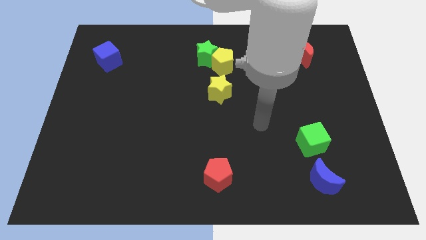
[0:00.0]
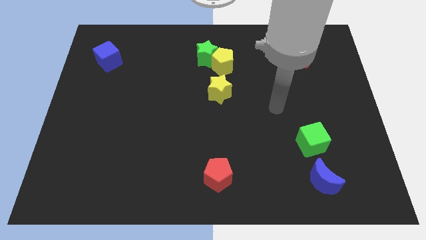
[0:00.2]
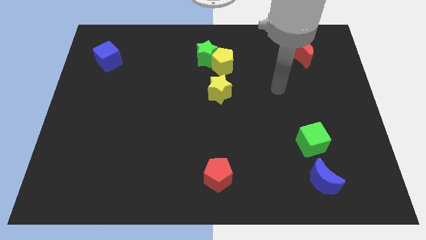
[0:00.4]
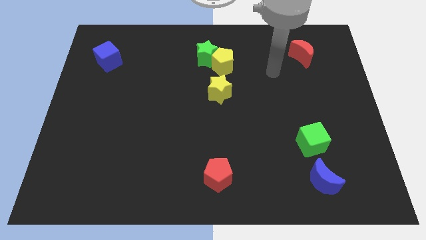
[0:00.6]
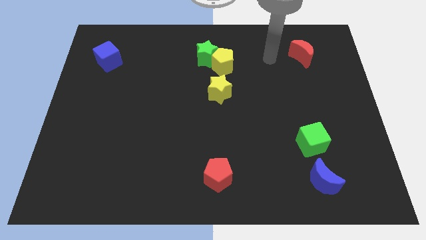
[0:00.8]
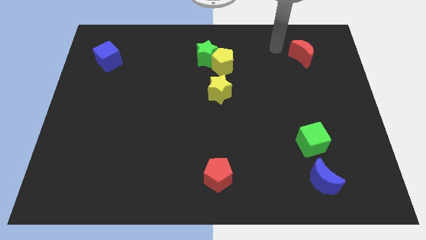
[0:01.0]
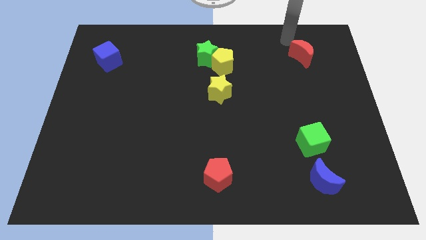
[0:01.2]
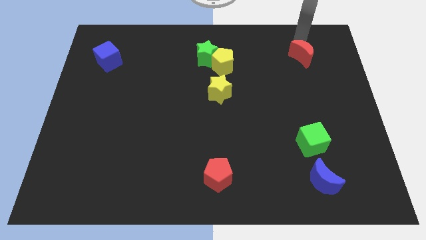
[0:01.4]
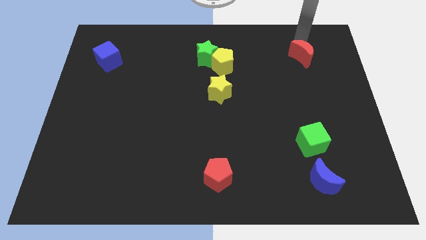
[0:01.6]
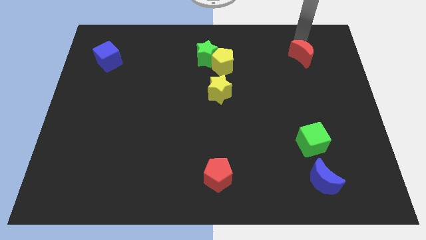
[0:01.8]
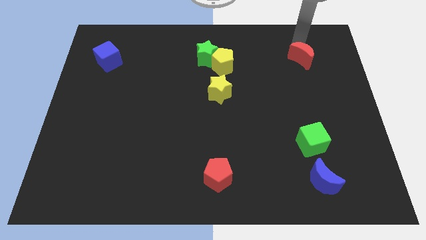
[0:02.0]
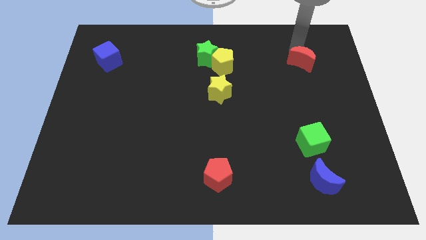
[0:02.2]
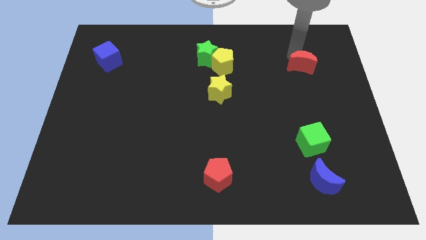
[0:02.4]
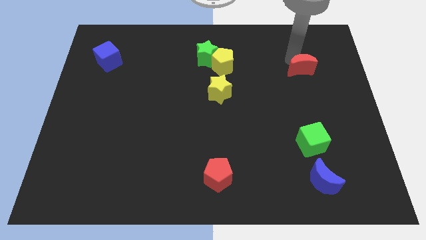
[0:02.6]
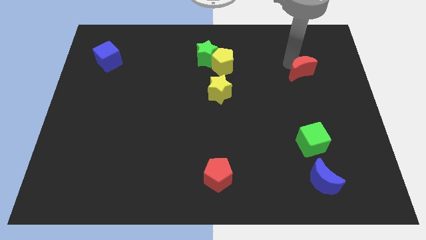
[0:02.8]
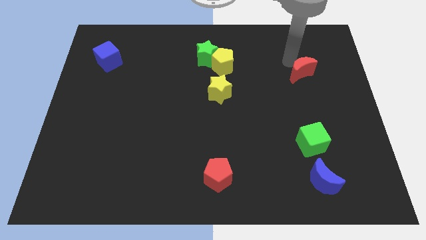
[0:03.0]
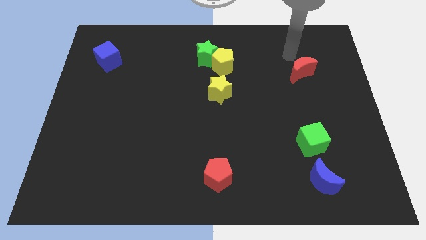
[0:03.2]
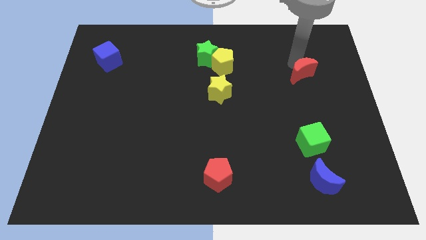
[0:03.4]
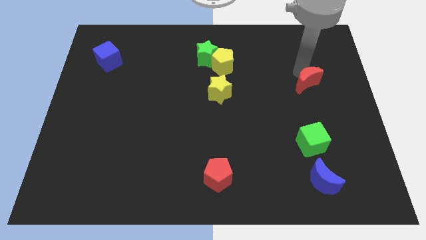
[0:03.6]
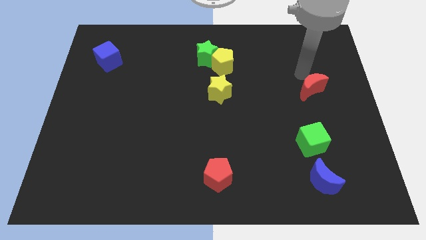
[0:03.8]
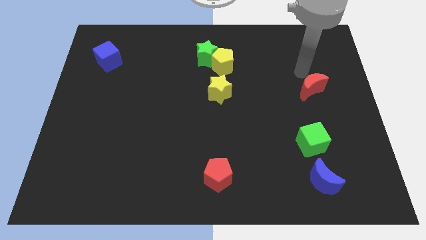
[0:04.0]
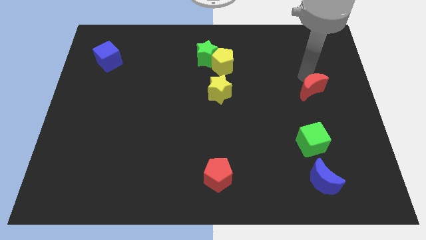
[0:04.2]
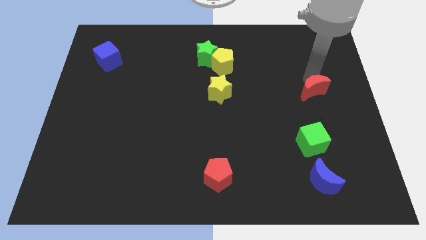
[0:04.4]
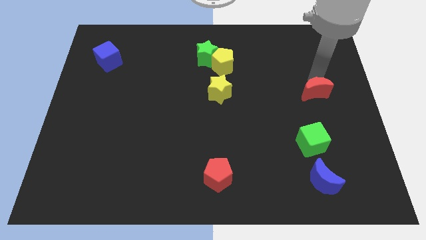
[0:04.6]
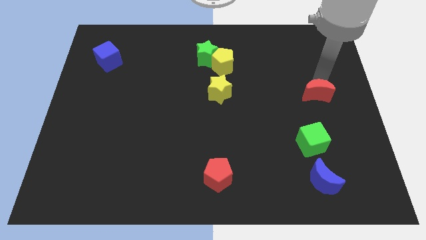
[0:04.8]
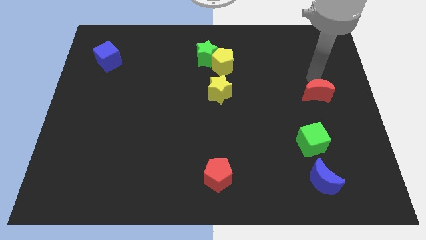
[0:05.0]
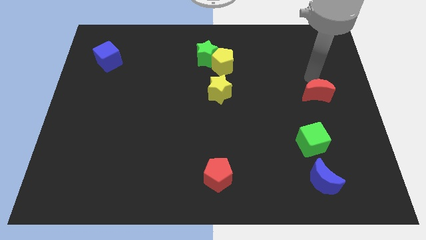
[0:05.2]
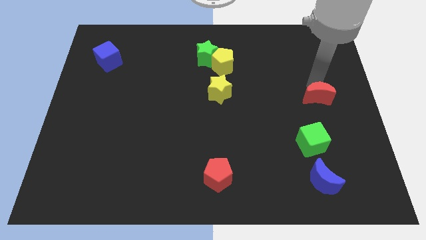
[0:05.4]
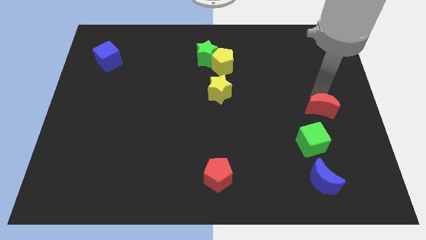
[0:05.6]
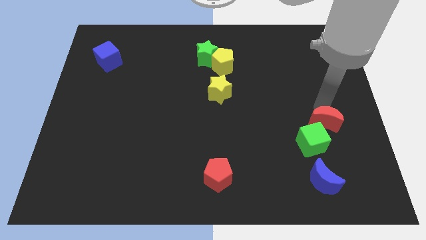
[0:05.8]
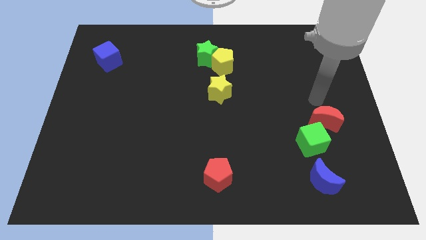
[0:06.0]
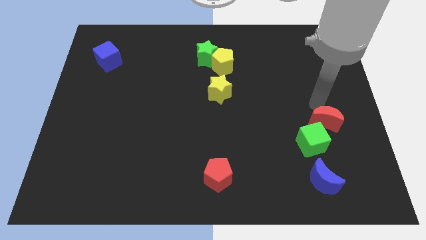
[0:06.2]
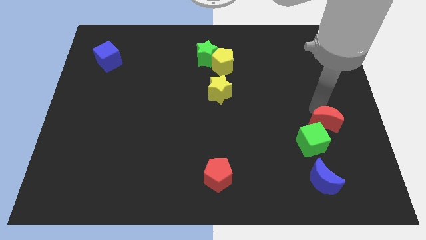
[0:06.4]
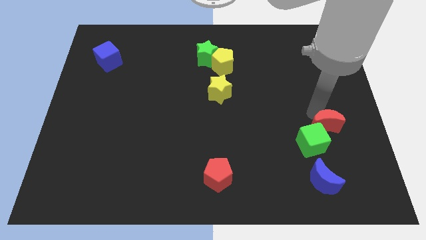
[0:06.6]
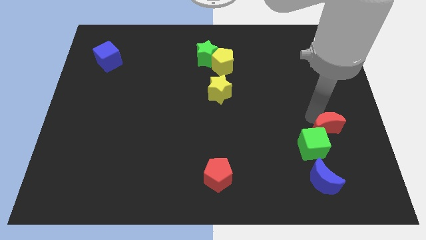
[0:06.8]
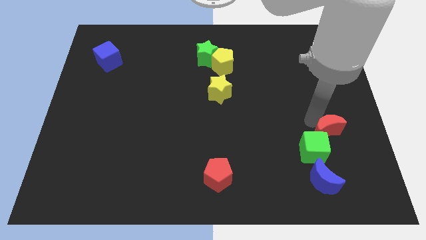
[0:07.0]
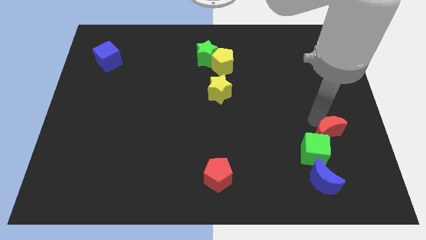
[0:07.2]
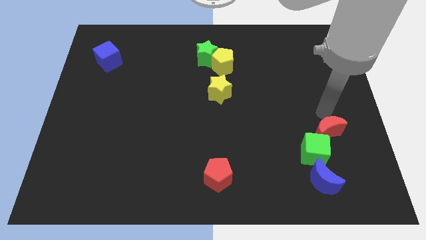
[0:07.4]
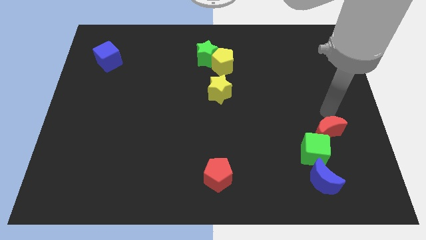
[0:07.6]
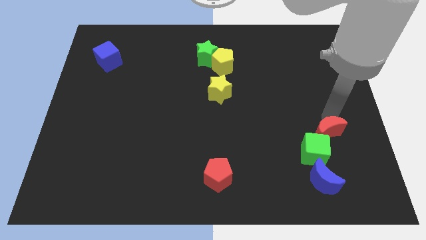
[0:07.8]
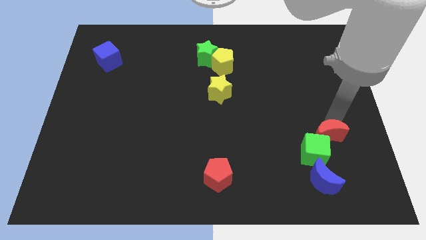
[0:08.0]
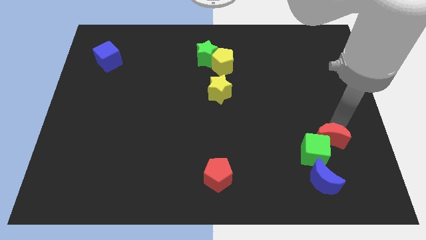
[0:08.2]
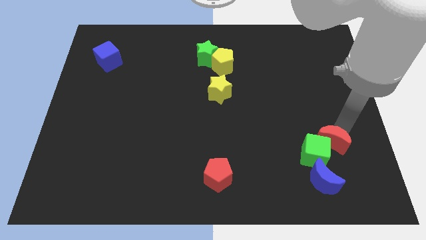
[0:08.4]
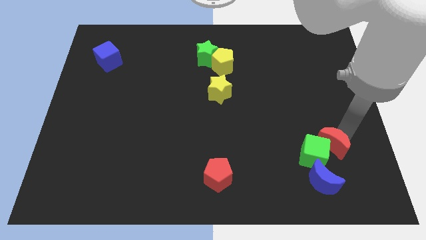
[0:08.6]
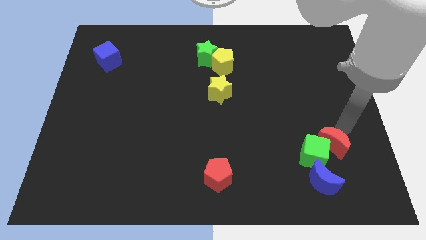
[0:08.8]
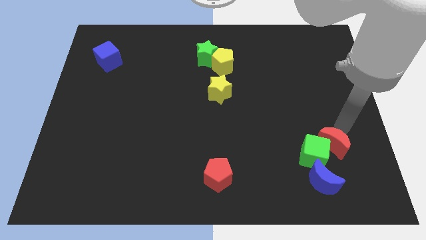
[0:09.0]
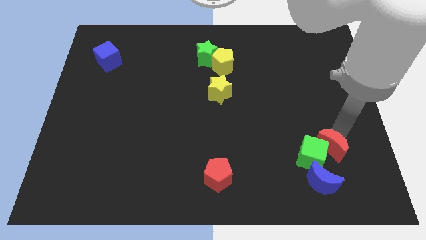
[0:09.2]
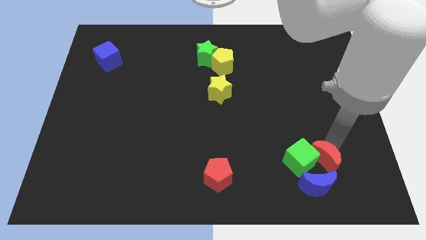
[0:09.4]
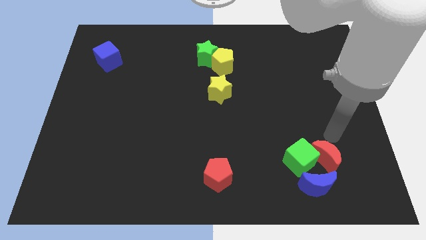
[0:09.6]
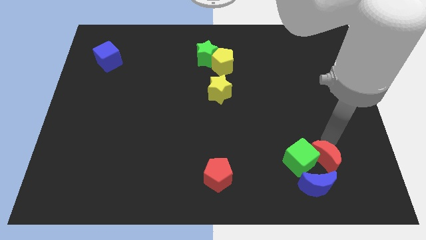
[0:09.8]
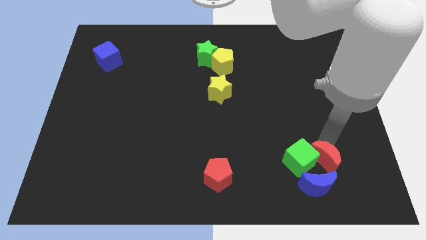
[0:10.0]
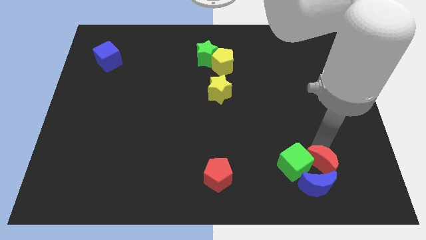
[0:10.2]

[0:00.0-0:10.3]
slide the red moon to the blue moon

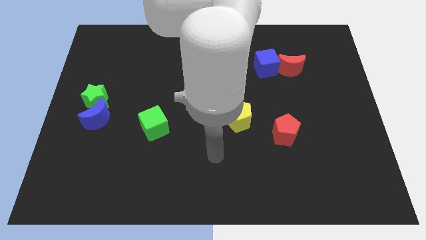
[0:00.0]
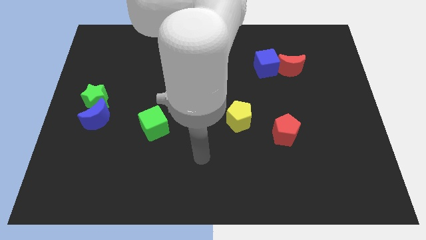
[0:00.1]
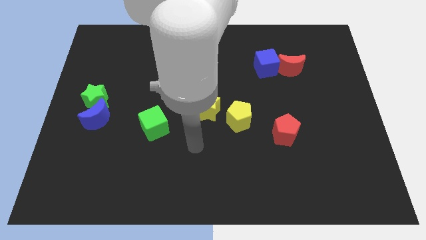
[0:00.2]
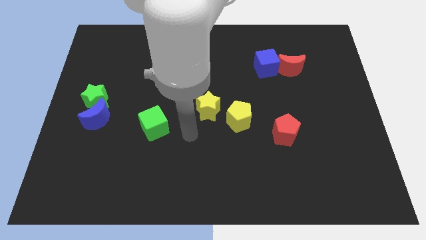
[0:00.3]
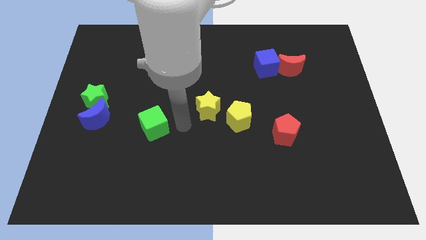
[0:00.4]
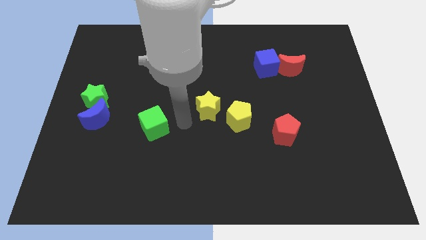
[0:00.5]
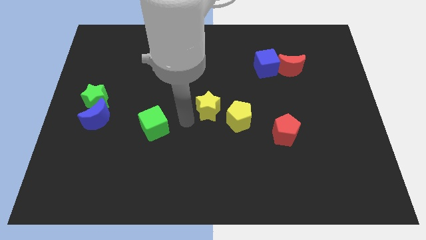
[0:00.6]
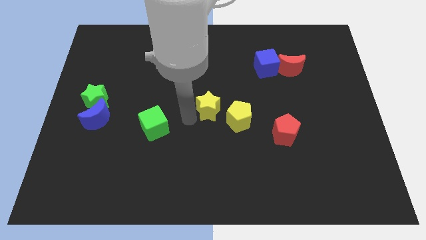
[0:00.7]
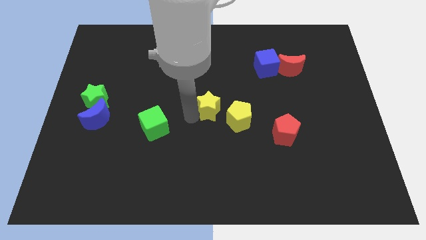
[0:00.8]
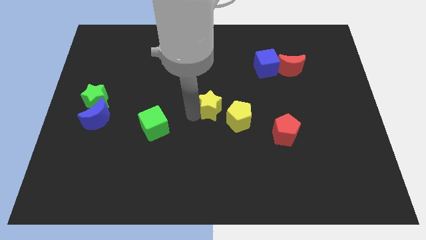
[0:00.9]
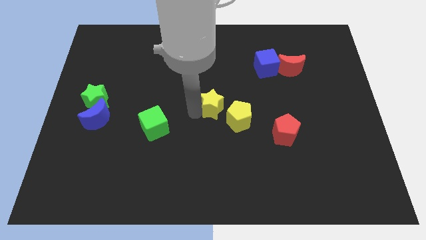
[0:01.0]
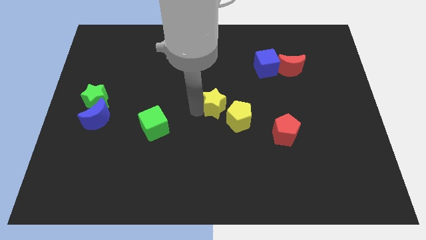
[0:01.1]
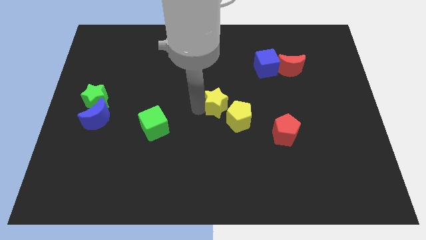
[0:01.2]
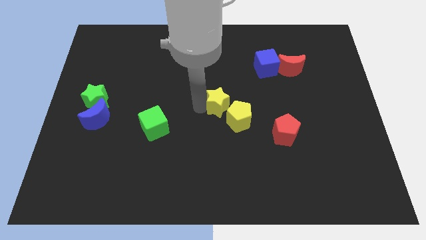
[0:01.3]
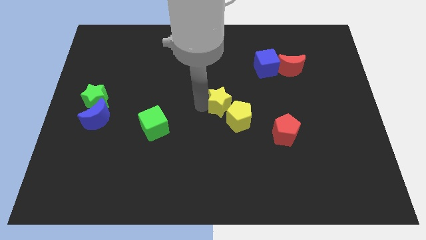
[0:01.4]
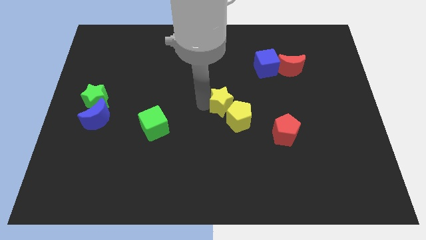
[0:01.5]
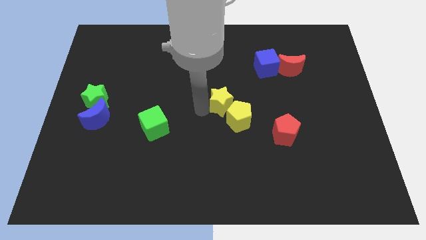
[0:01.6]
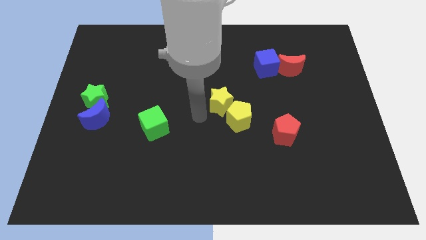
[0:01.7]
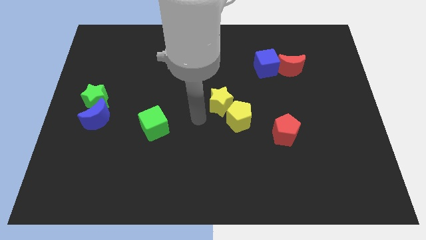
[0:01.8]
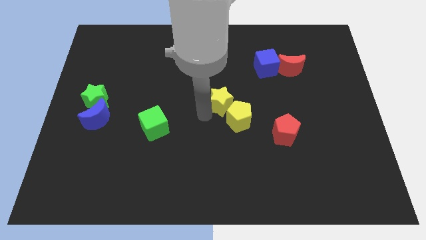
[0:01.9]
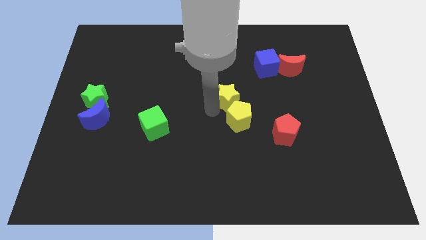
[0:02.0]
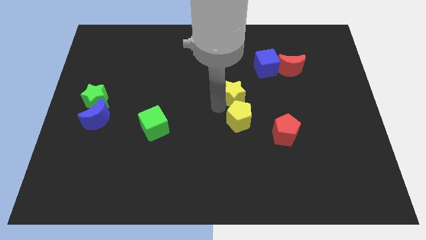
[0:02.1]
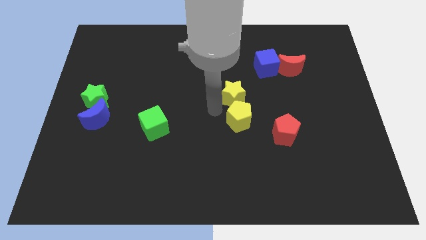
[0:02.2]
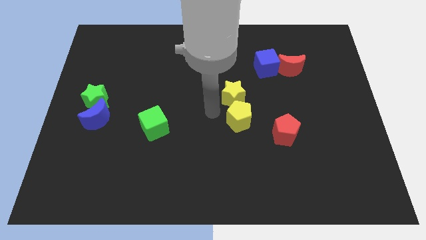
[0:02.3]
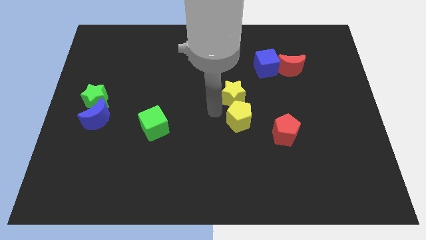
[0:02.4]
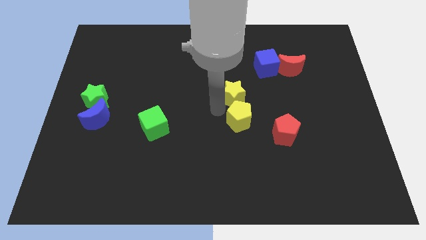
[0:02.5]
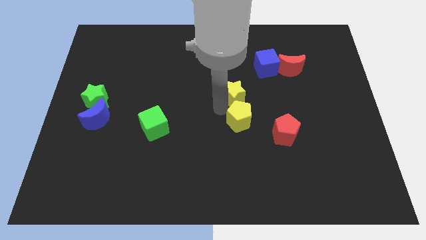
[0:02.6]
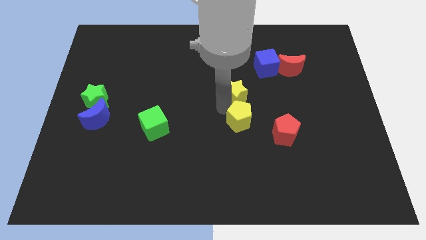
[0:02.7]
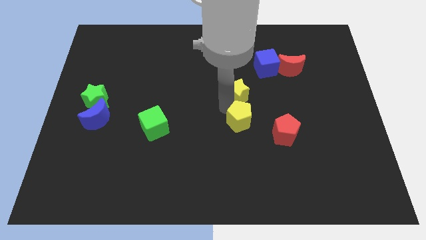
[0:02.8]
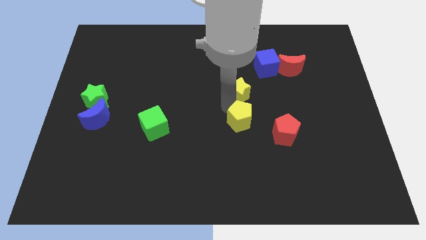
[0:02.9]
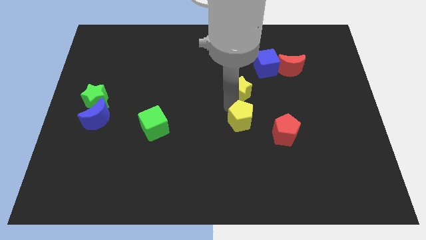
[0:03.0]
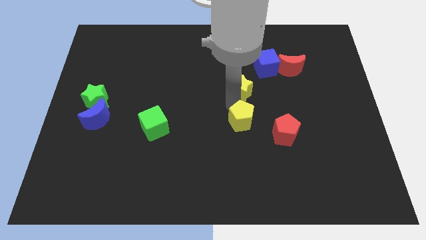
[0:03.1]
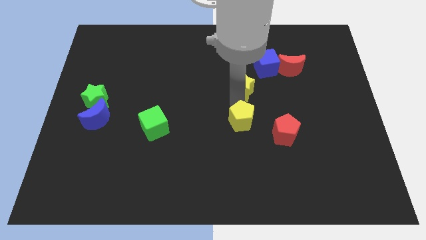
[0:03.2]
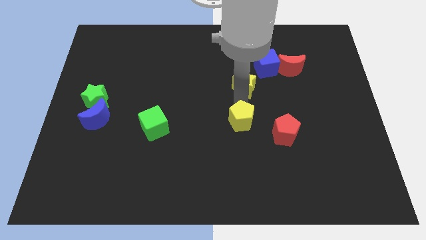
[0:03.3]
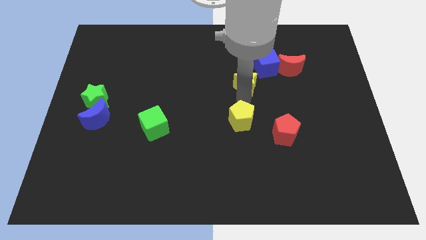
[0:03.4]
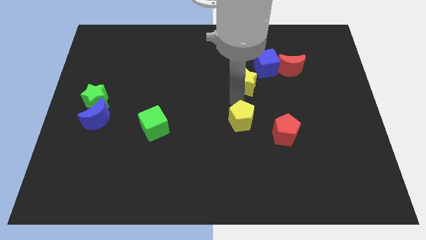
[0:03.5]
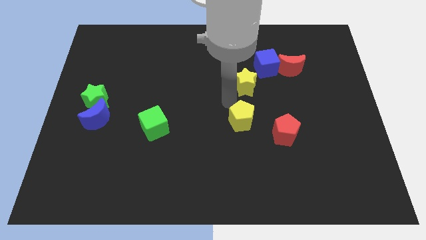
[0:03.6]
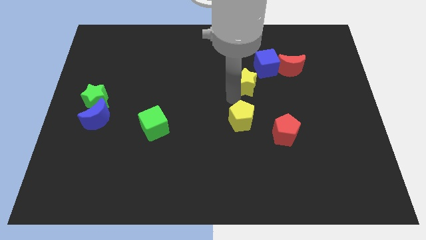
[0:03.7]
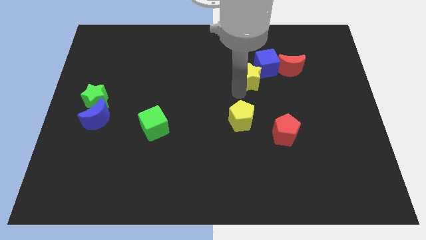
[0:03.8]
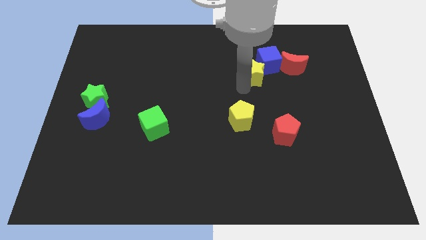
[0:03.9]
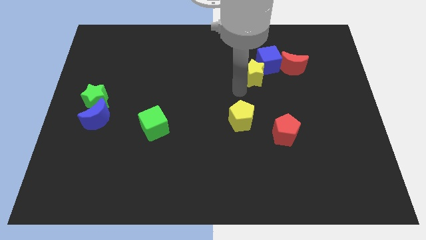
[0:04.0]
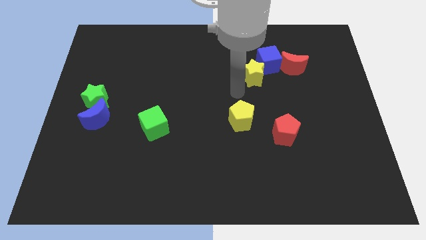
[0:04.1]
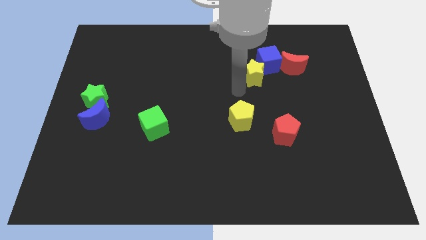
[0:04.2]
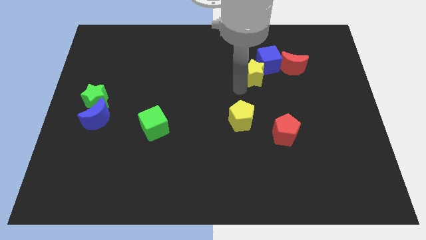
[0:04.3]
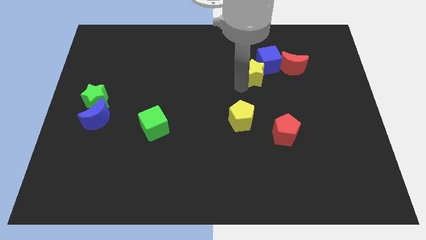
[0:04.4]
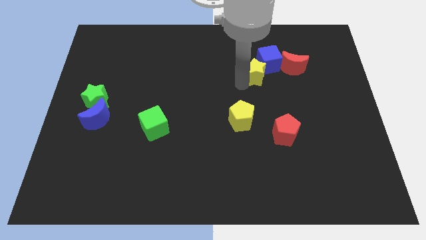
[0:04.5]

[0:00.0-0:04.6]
put the yellow star close to the blue cube
